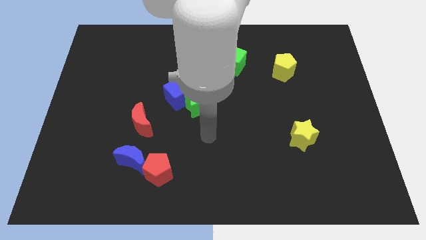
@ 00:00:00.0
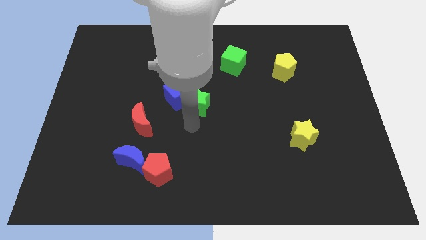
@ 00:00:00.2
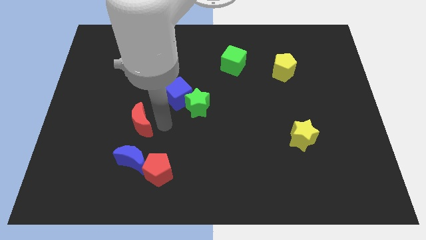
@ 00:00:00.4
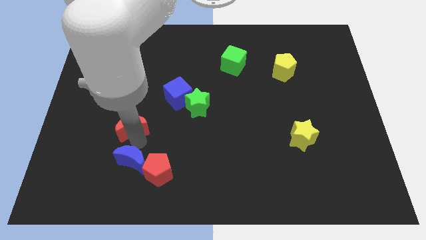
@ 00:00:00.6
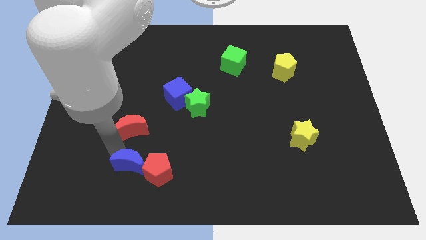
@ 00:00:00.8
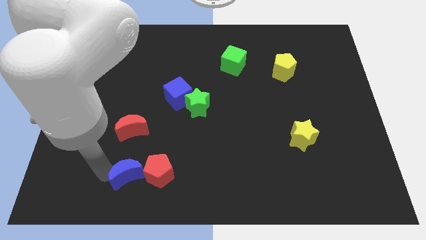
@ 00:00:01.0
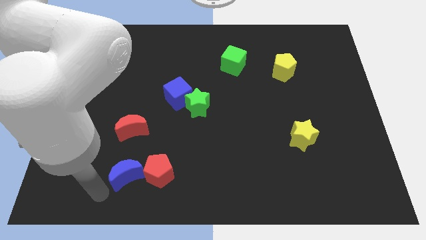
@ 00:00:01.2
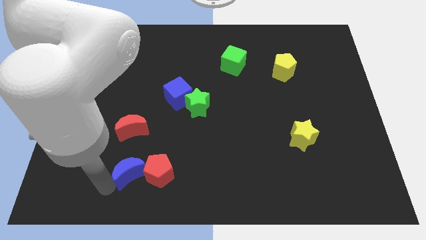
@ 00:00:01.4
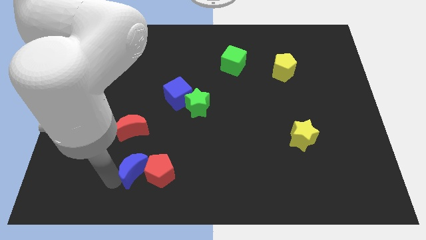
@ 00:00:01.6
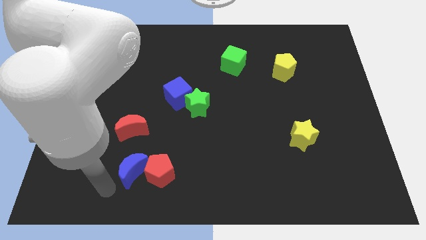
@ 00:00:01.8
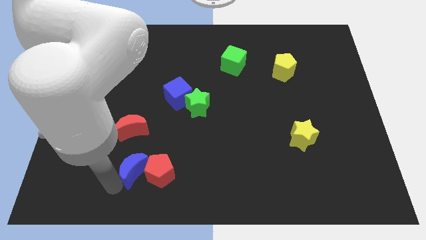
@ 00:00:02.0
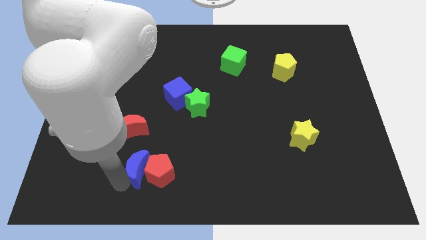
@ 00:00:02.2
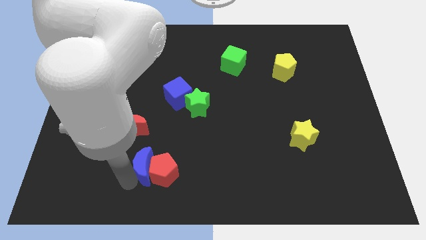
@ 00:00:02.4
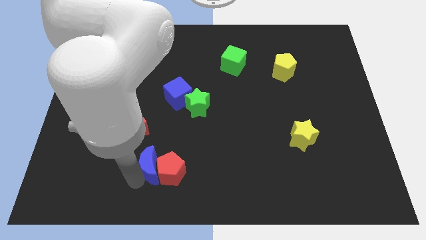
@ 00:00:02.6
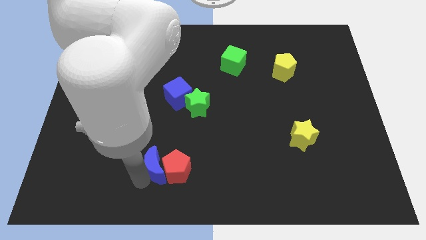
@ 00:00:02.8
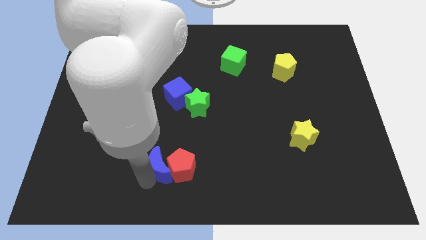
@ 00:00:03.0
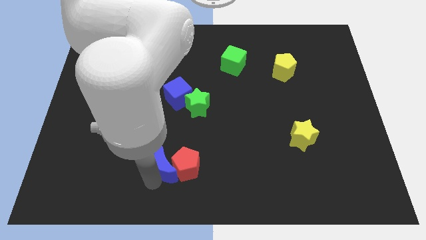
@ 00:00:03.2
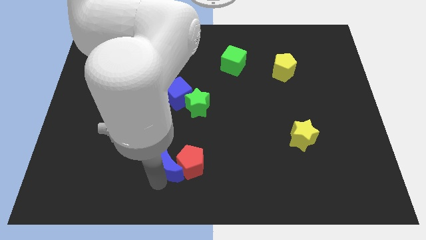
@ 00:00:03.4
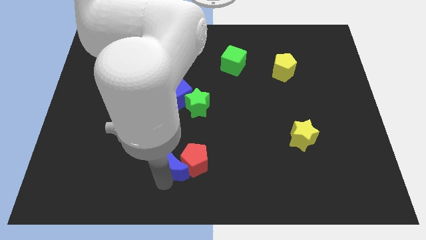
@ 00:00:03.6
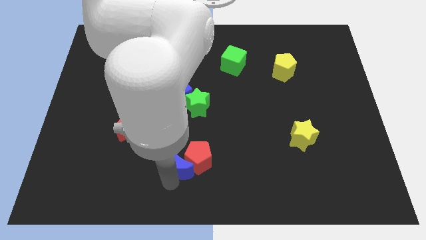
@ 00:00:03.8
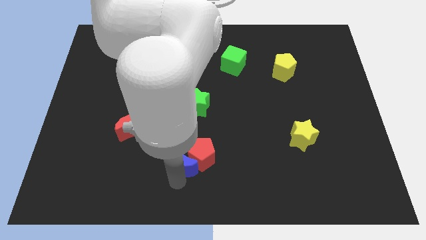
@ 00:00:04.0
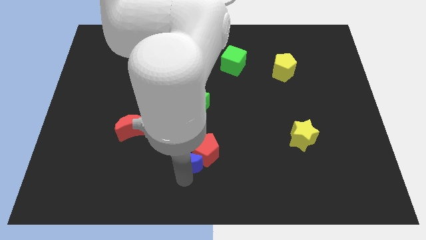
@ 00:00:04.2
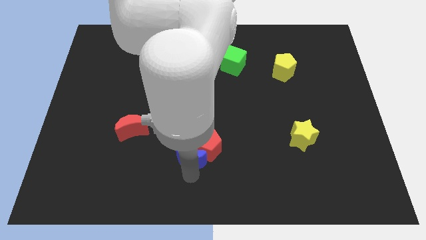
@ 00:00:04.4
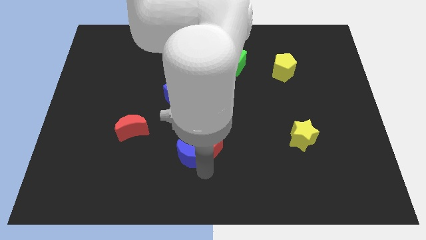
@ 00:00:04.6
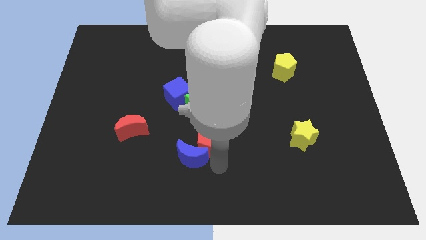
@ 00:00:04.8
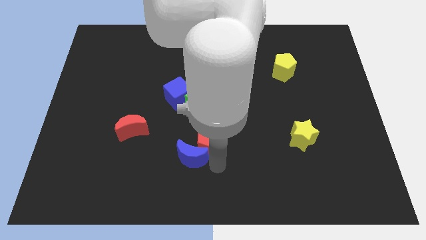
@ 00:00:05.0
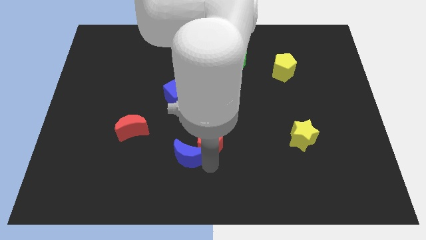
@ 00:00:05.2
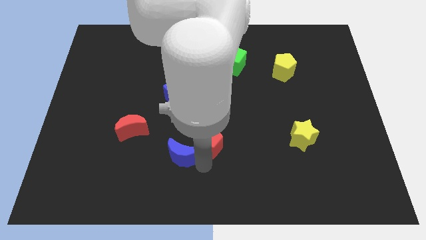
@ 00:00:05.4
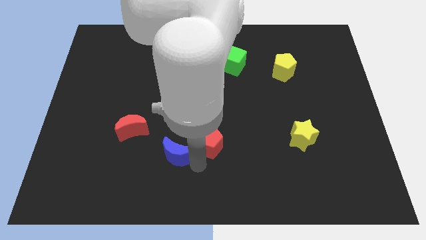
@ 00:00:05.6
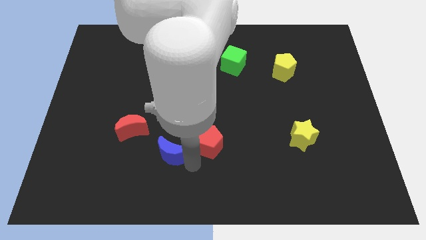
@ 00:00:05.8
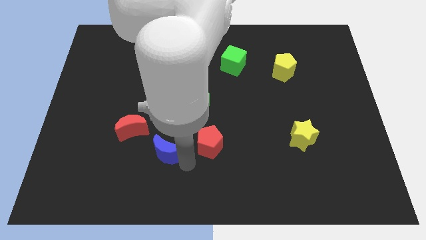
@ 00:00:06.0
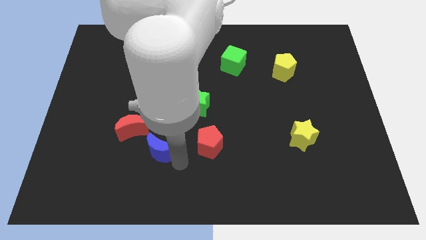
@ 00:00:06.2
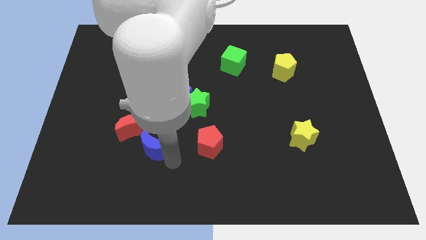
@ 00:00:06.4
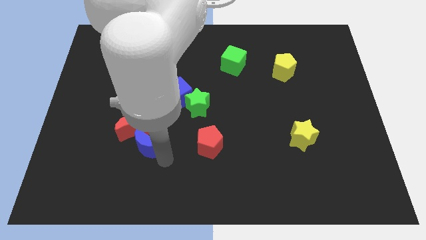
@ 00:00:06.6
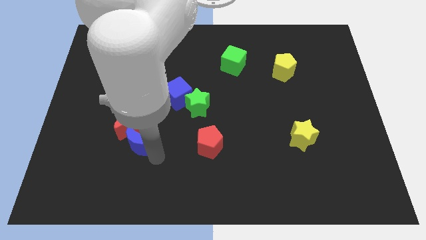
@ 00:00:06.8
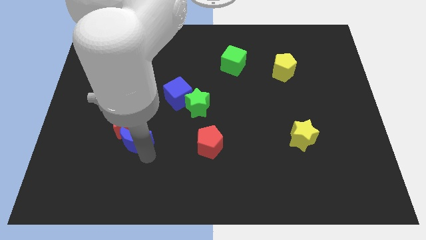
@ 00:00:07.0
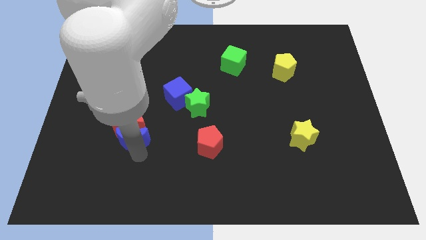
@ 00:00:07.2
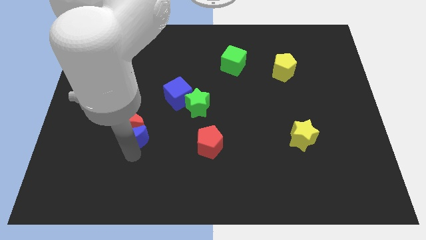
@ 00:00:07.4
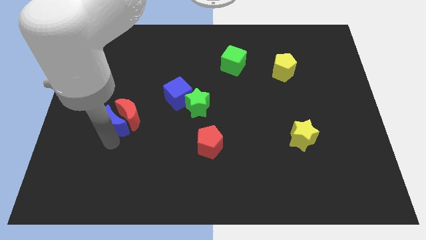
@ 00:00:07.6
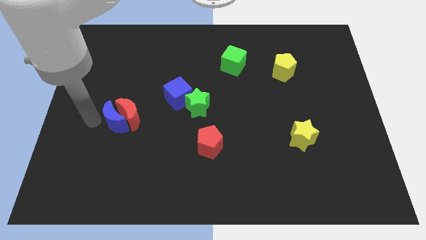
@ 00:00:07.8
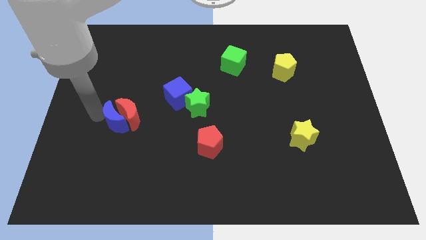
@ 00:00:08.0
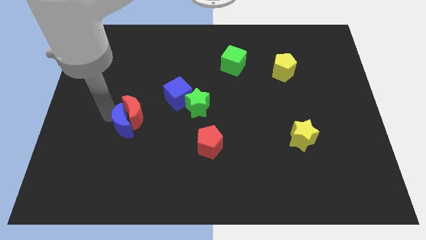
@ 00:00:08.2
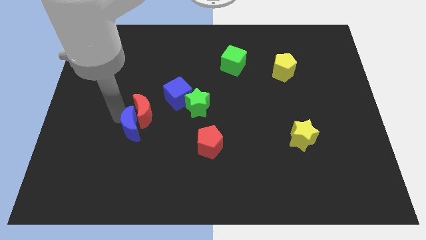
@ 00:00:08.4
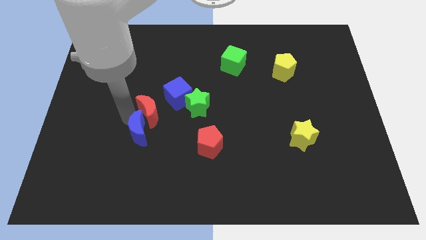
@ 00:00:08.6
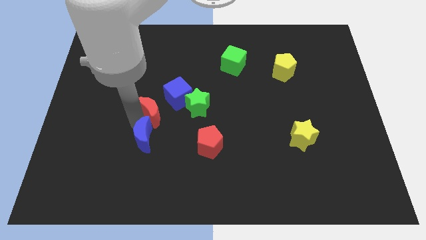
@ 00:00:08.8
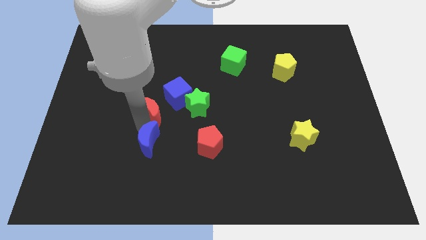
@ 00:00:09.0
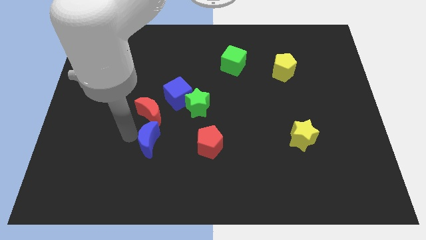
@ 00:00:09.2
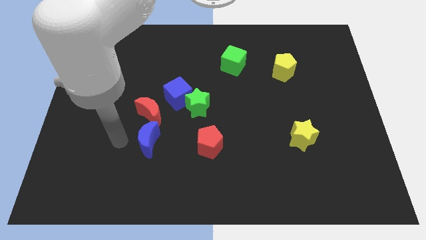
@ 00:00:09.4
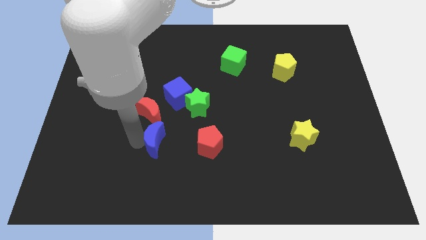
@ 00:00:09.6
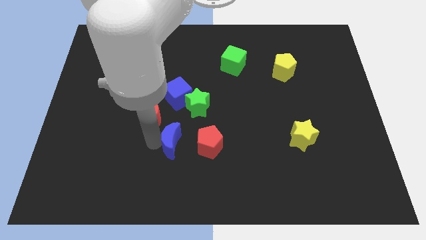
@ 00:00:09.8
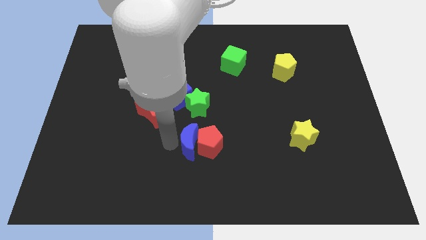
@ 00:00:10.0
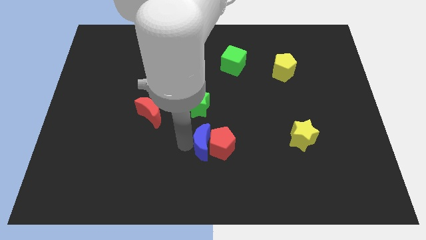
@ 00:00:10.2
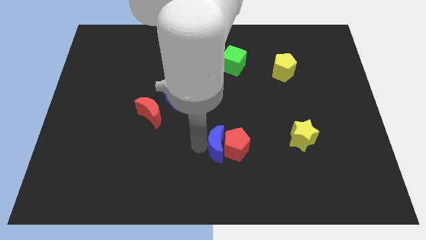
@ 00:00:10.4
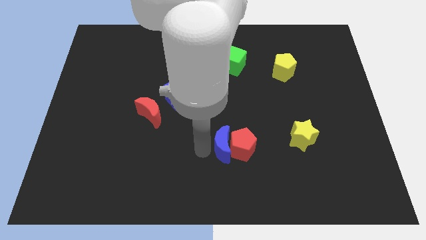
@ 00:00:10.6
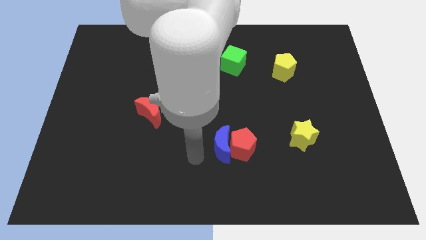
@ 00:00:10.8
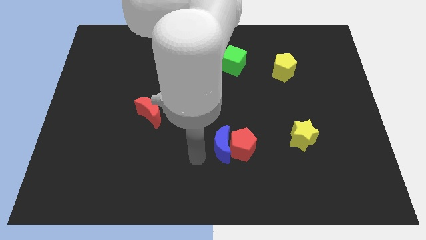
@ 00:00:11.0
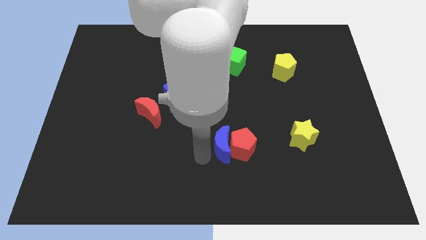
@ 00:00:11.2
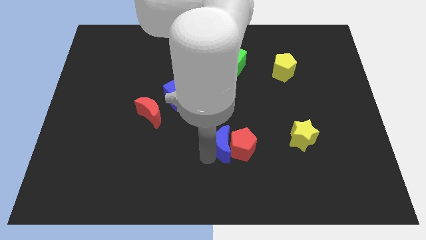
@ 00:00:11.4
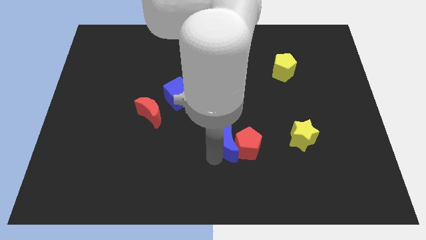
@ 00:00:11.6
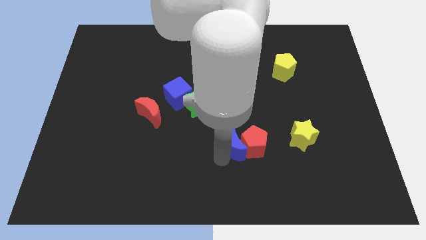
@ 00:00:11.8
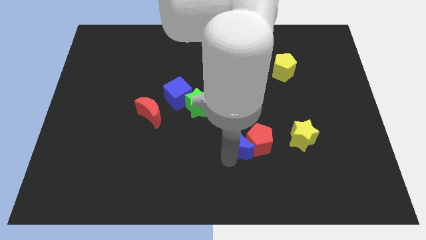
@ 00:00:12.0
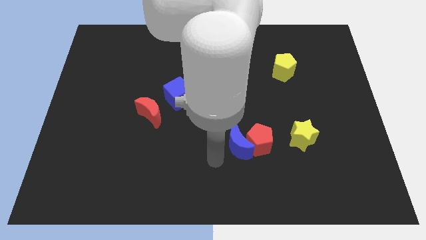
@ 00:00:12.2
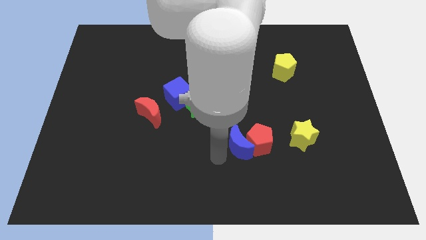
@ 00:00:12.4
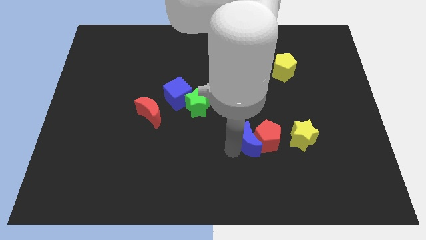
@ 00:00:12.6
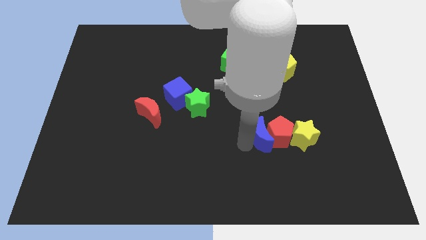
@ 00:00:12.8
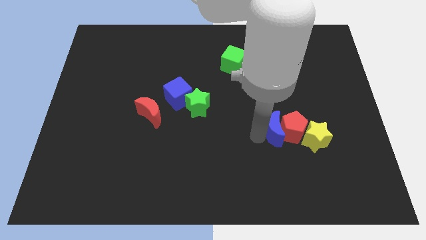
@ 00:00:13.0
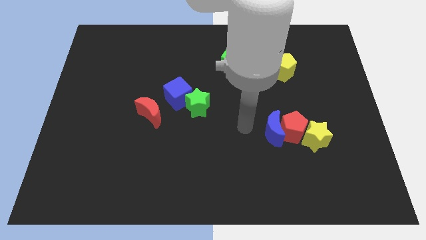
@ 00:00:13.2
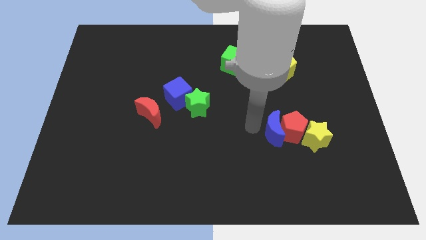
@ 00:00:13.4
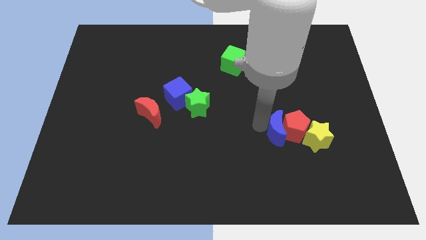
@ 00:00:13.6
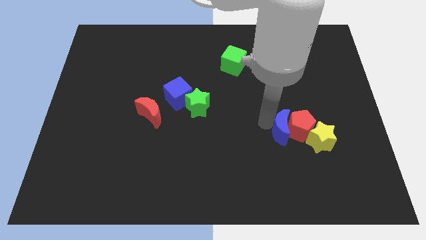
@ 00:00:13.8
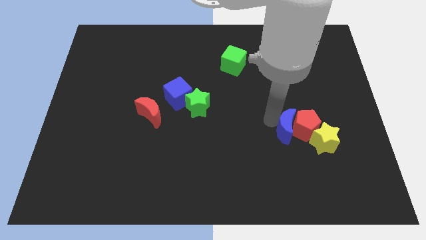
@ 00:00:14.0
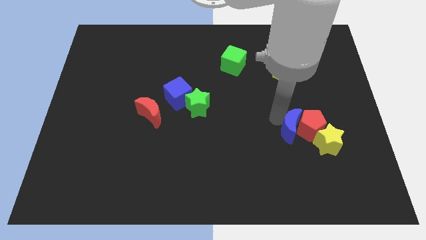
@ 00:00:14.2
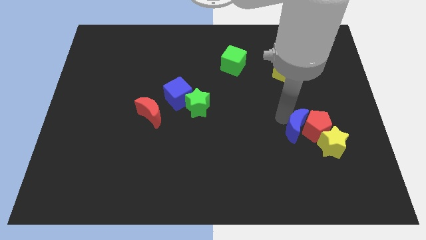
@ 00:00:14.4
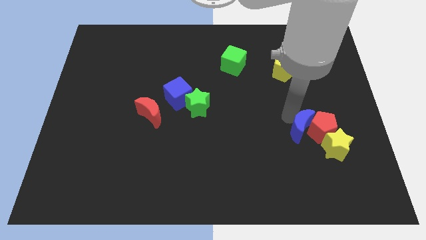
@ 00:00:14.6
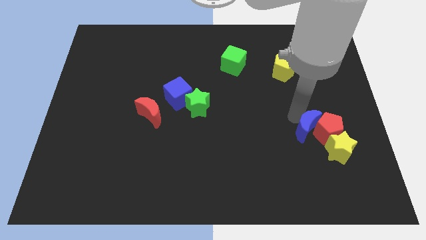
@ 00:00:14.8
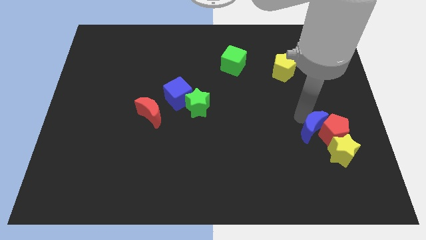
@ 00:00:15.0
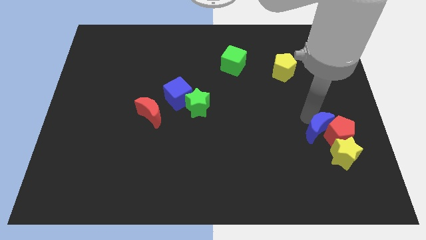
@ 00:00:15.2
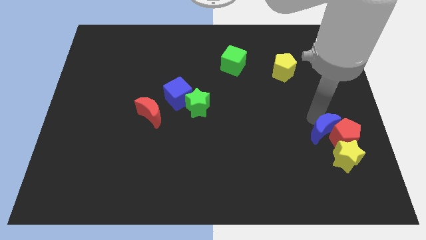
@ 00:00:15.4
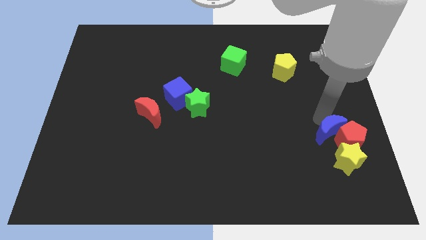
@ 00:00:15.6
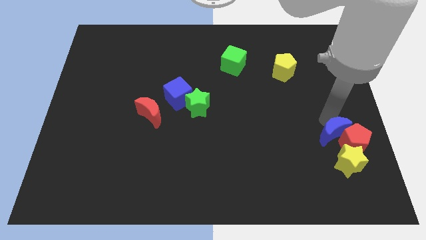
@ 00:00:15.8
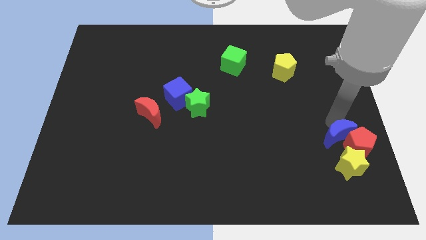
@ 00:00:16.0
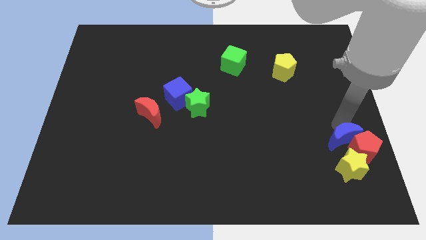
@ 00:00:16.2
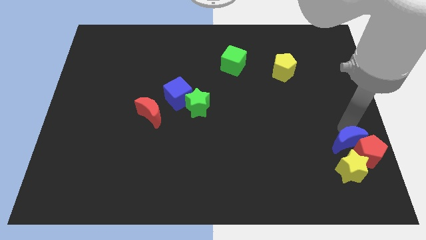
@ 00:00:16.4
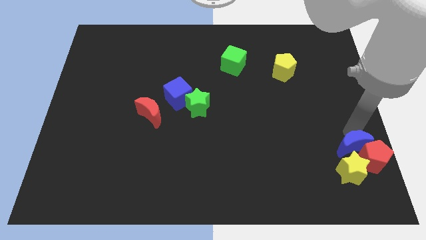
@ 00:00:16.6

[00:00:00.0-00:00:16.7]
put the blue moon to the yellow star
